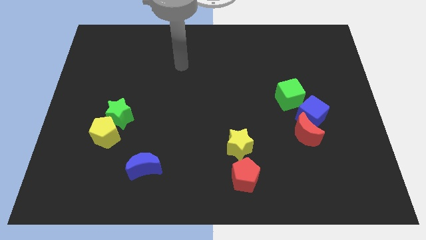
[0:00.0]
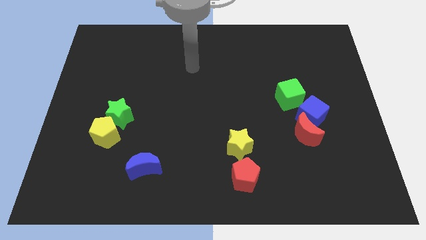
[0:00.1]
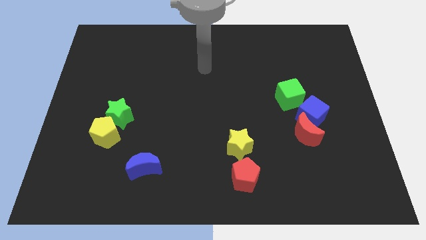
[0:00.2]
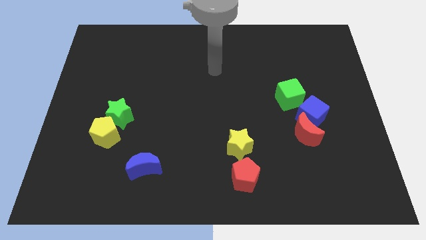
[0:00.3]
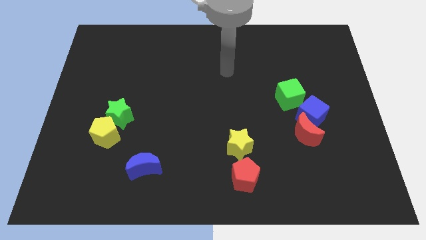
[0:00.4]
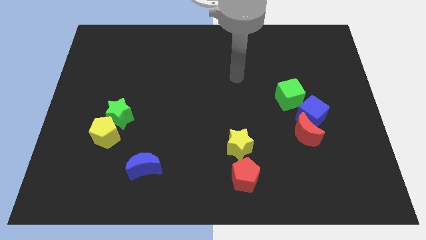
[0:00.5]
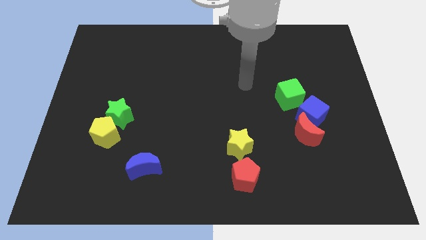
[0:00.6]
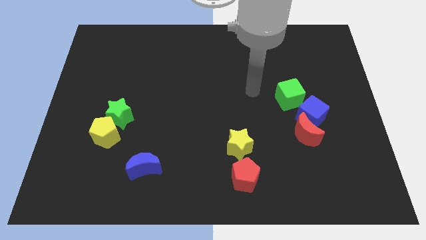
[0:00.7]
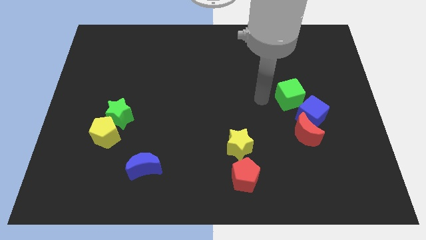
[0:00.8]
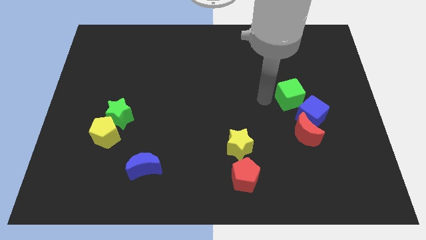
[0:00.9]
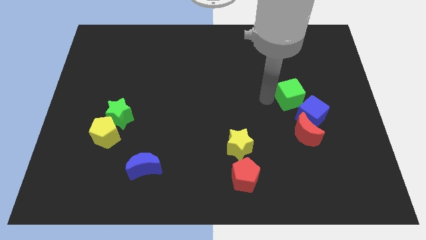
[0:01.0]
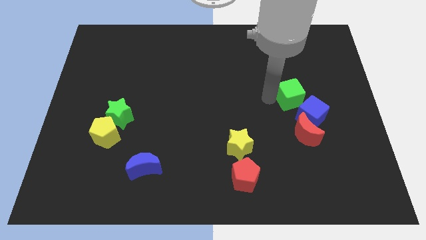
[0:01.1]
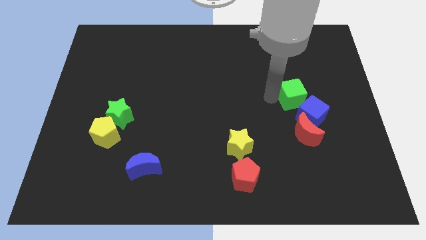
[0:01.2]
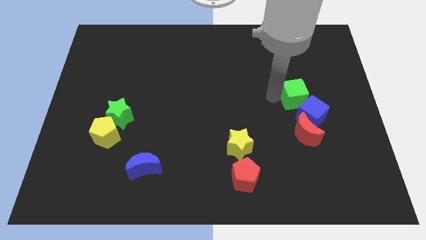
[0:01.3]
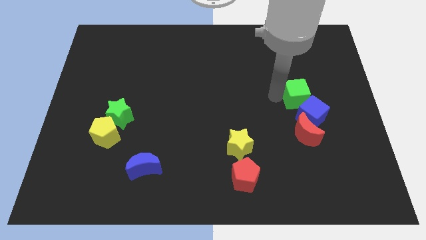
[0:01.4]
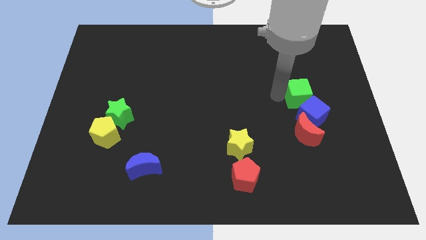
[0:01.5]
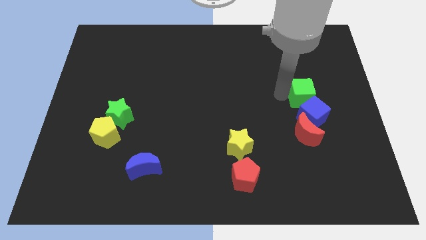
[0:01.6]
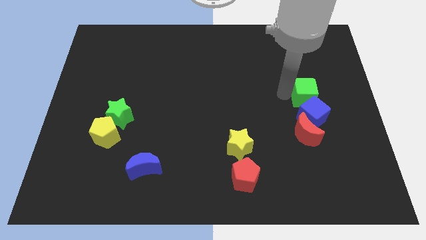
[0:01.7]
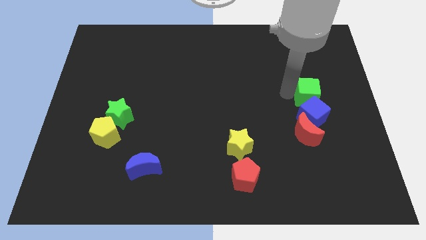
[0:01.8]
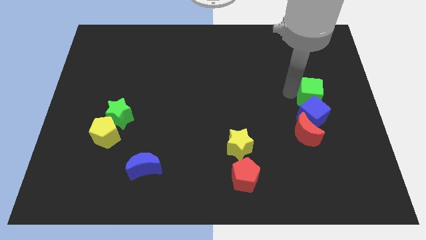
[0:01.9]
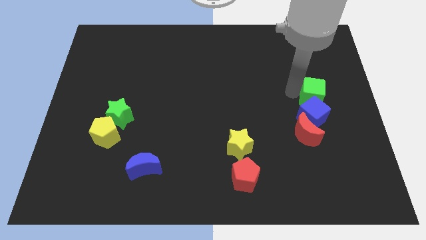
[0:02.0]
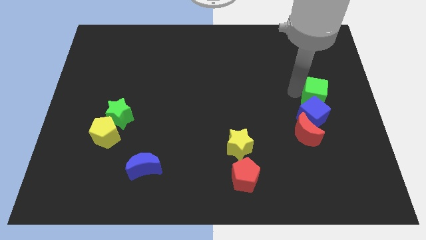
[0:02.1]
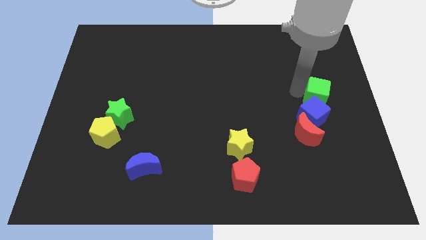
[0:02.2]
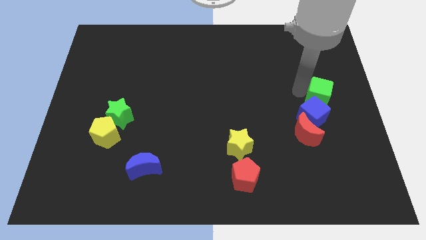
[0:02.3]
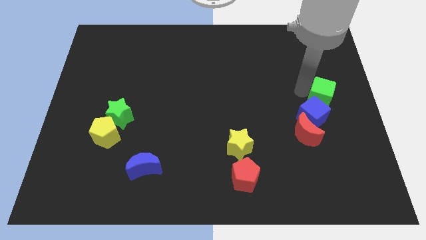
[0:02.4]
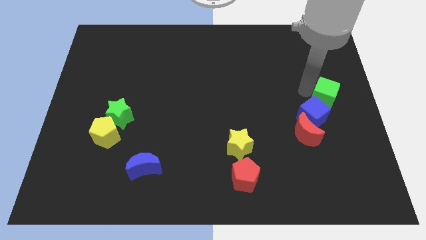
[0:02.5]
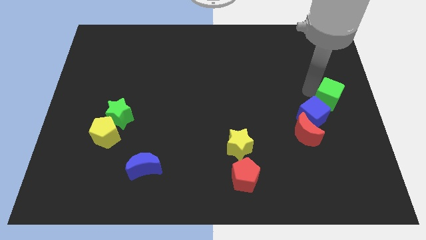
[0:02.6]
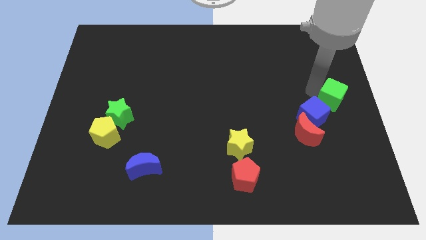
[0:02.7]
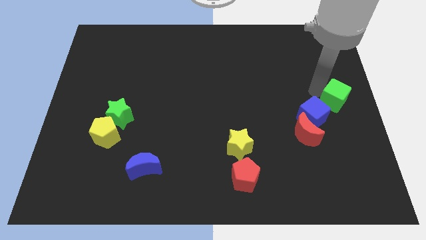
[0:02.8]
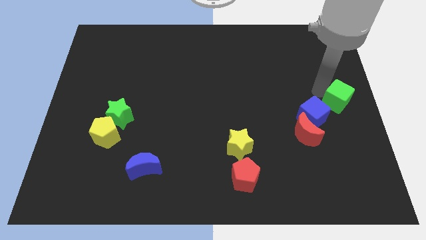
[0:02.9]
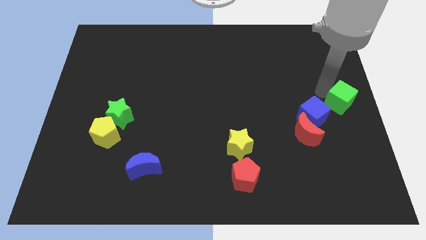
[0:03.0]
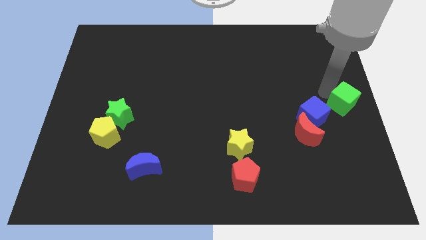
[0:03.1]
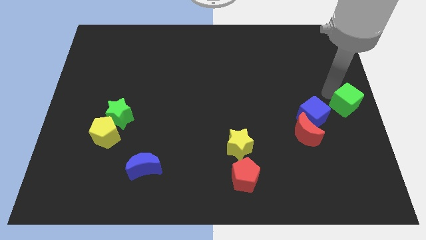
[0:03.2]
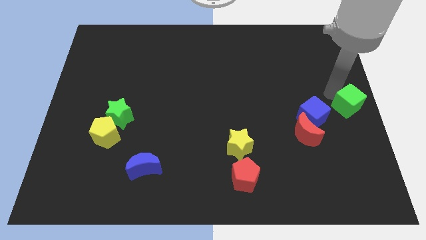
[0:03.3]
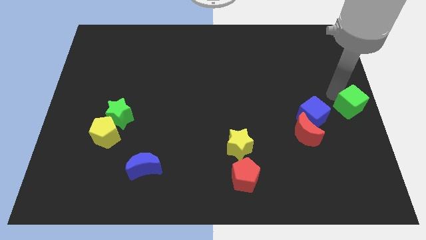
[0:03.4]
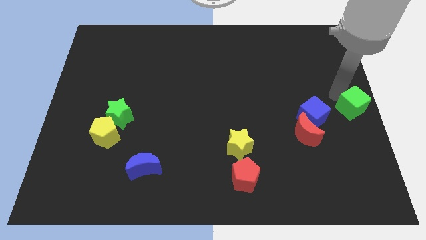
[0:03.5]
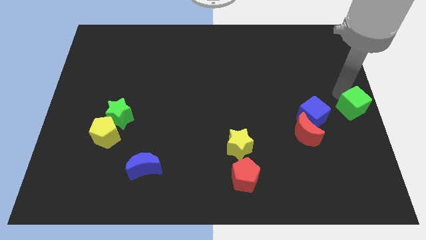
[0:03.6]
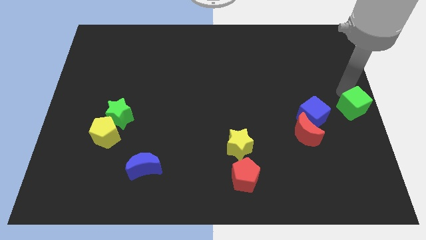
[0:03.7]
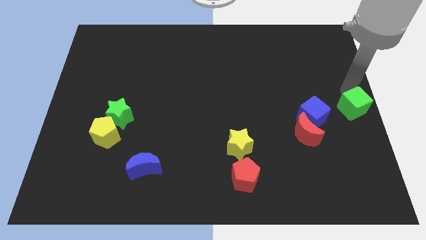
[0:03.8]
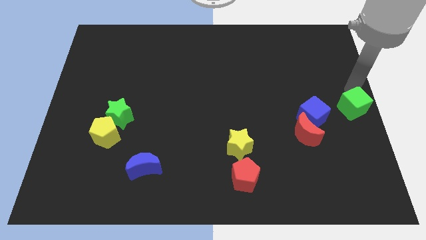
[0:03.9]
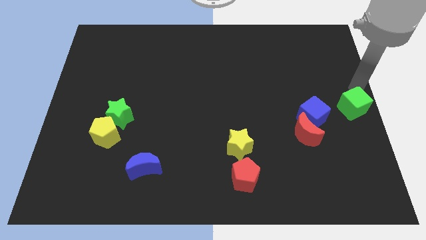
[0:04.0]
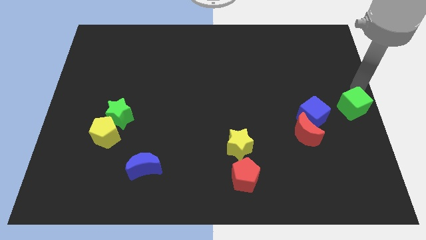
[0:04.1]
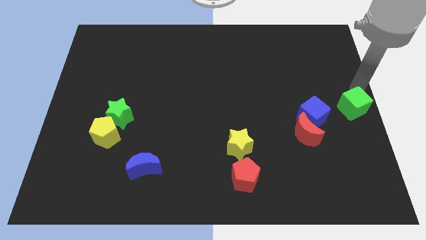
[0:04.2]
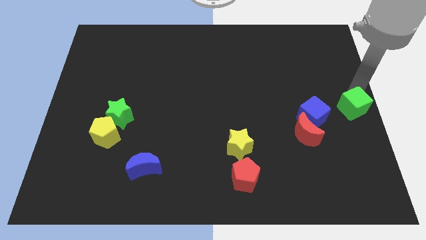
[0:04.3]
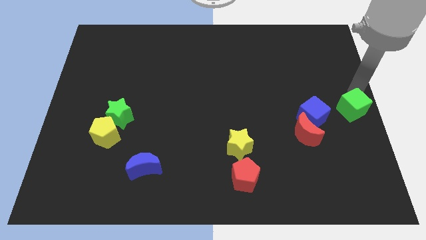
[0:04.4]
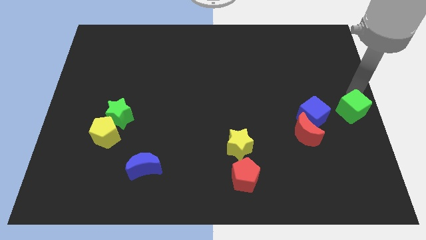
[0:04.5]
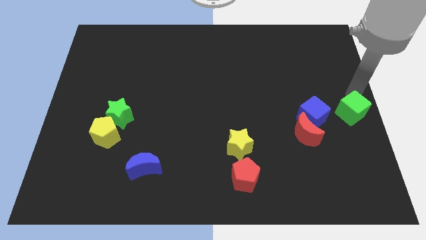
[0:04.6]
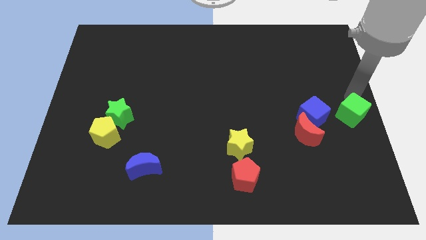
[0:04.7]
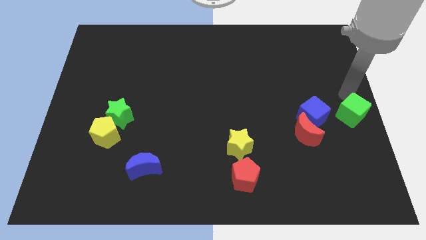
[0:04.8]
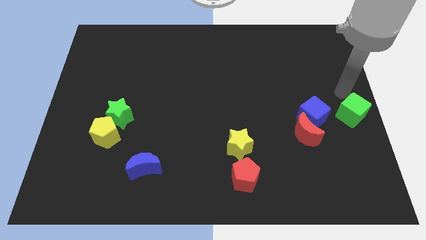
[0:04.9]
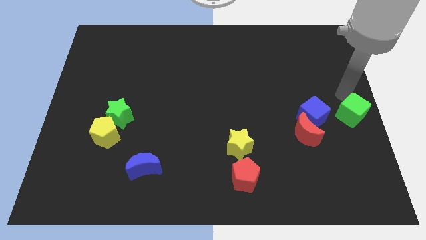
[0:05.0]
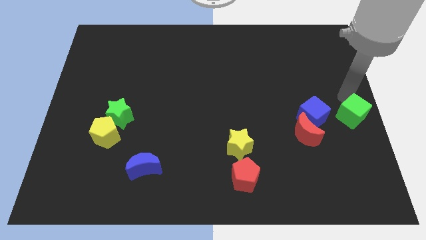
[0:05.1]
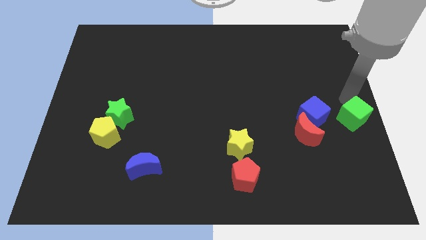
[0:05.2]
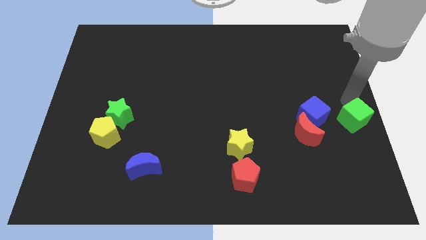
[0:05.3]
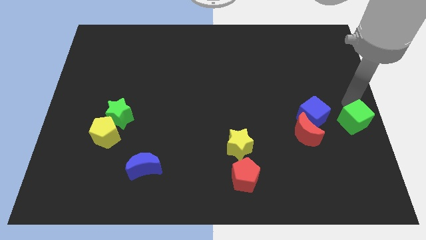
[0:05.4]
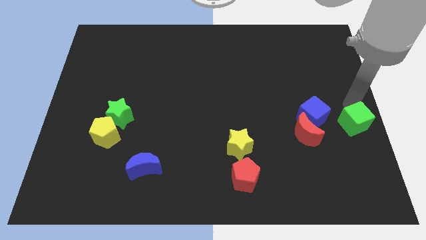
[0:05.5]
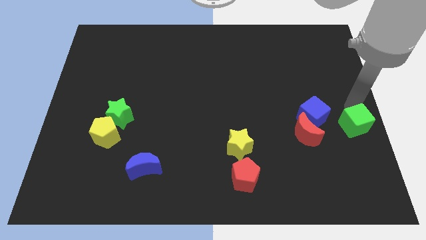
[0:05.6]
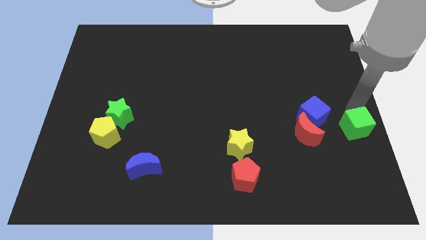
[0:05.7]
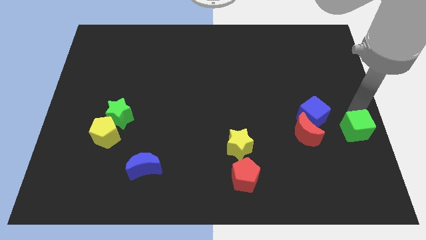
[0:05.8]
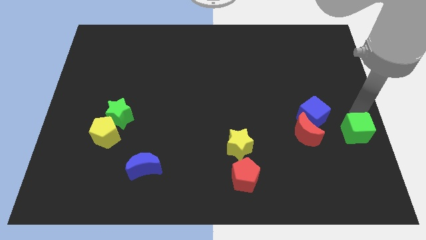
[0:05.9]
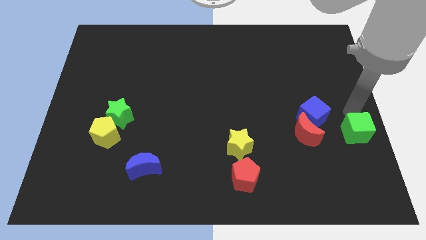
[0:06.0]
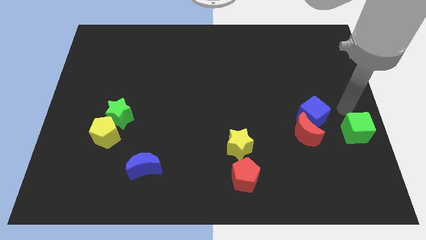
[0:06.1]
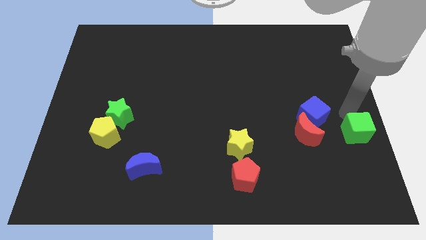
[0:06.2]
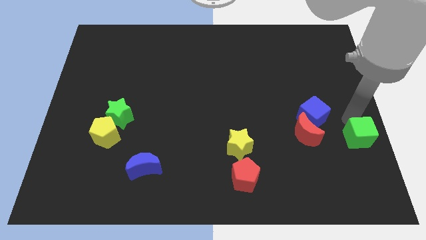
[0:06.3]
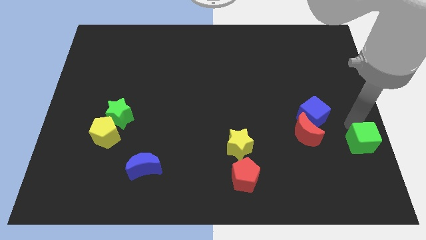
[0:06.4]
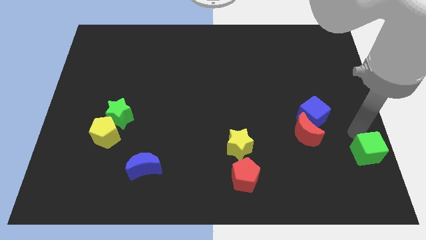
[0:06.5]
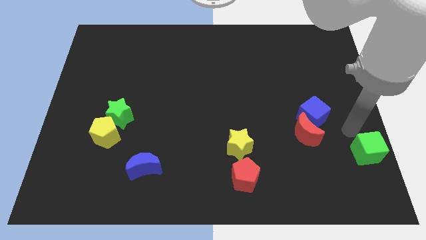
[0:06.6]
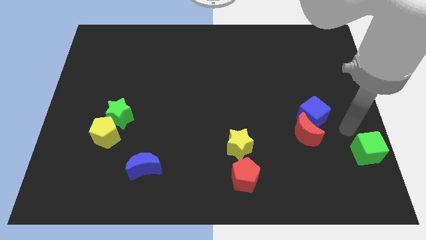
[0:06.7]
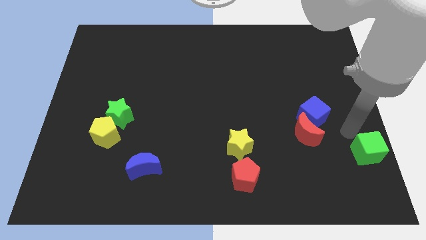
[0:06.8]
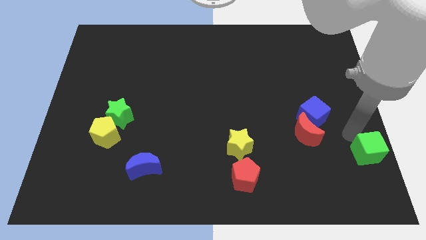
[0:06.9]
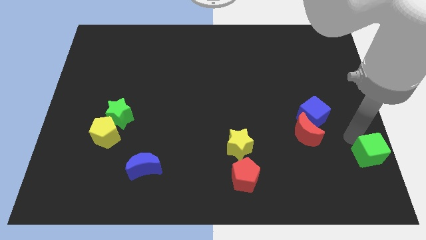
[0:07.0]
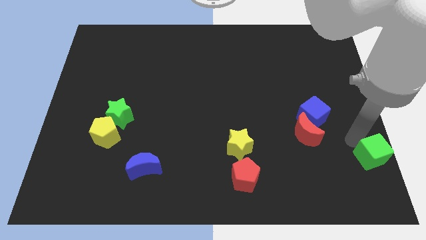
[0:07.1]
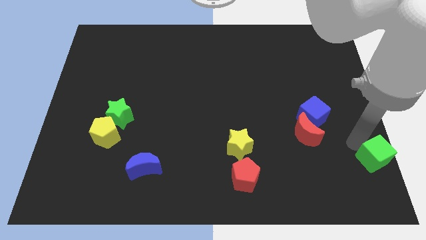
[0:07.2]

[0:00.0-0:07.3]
put the green cube to the bottom right corner
